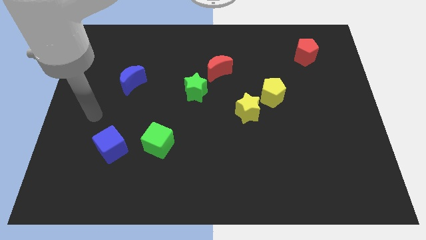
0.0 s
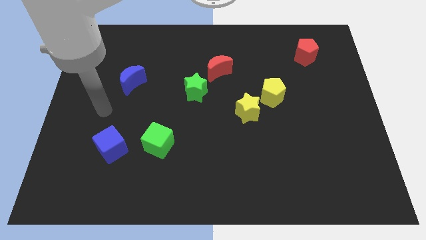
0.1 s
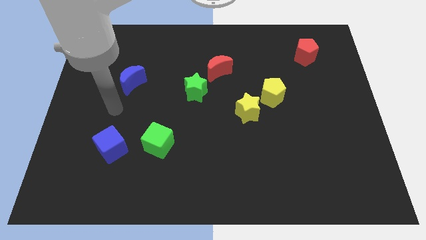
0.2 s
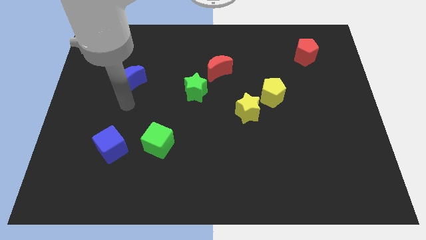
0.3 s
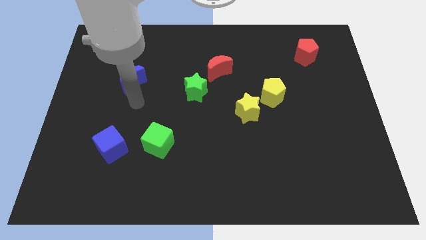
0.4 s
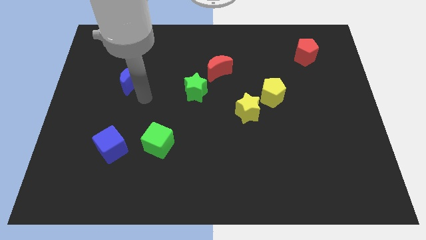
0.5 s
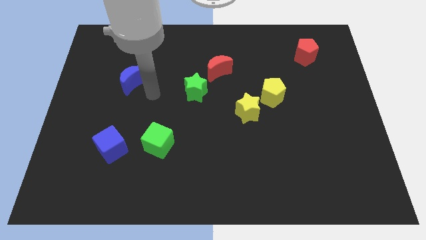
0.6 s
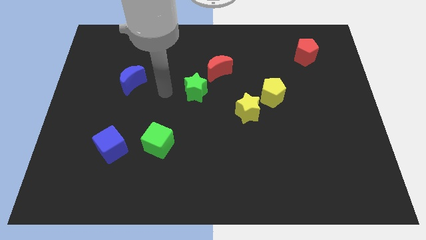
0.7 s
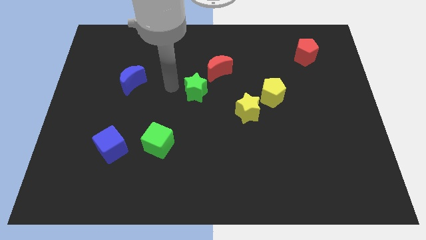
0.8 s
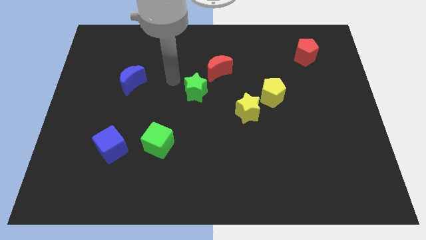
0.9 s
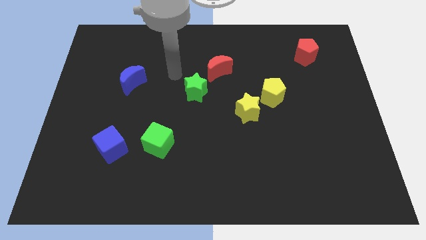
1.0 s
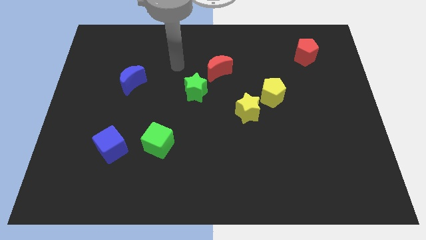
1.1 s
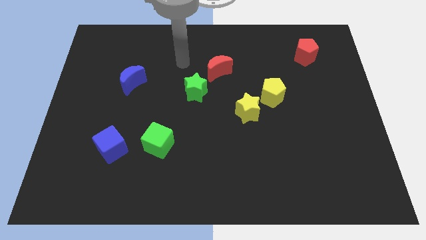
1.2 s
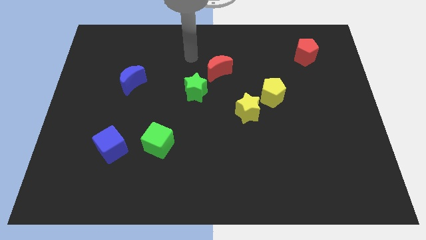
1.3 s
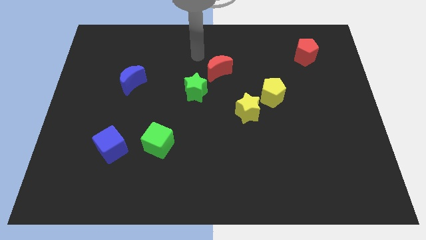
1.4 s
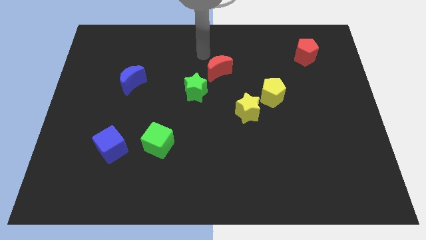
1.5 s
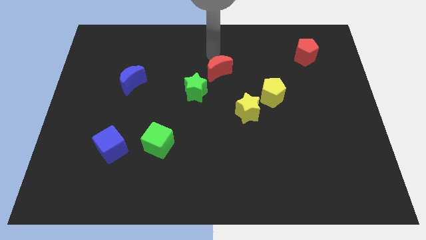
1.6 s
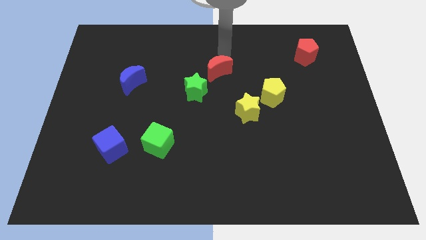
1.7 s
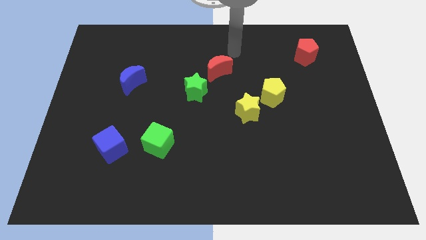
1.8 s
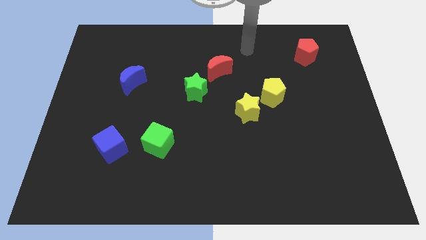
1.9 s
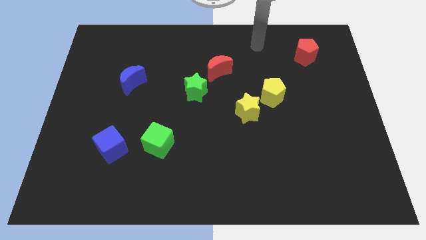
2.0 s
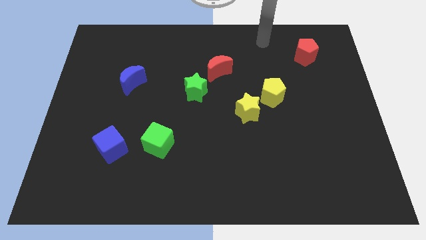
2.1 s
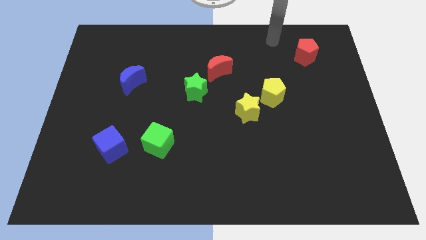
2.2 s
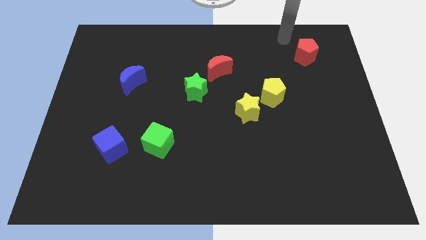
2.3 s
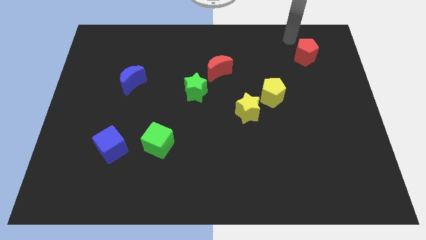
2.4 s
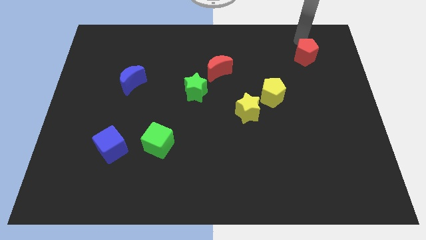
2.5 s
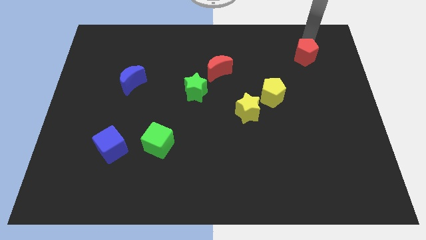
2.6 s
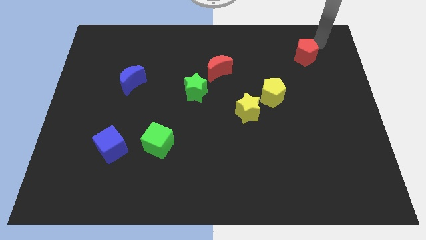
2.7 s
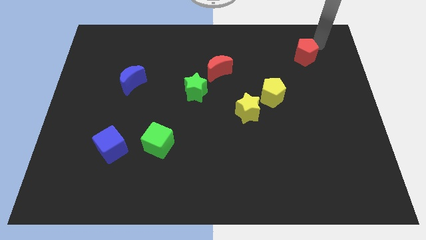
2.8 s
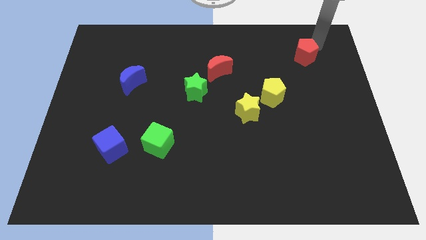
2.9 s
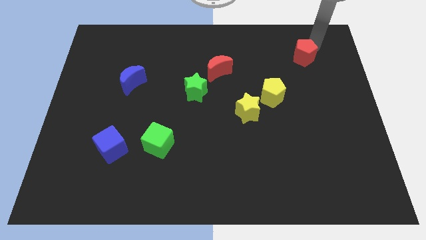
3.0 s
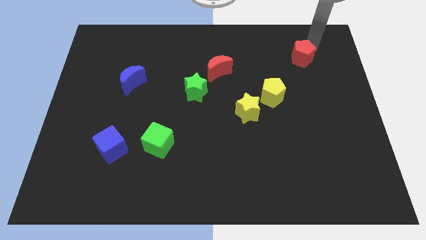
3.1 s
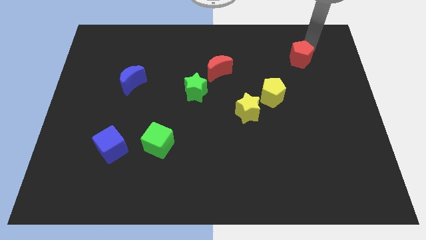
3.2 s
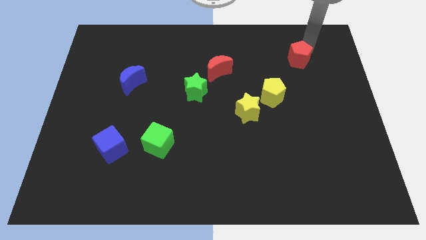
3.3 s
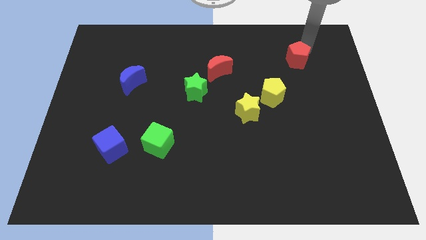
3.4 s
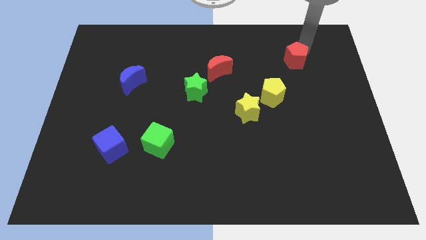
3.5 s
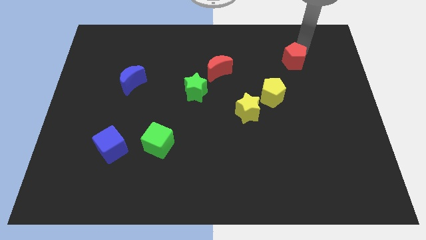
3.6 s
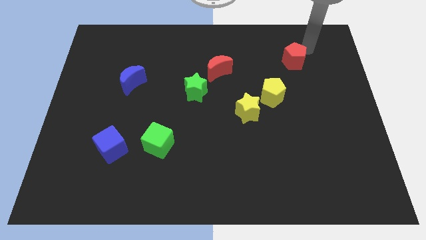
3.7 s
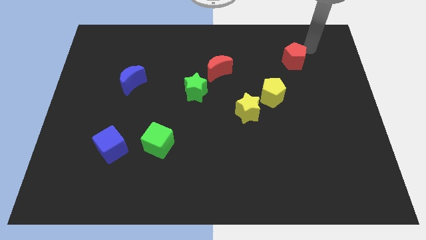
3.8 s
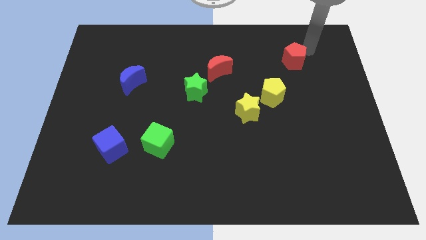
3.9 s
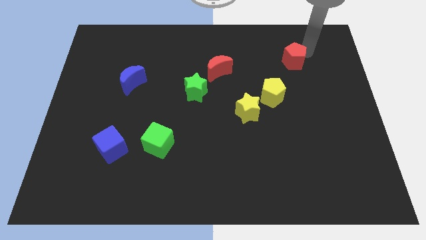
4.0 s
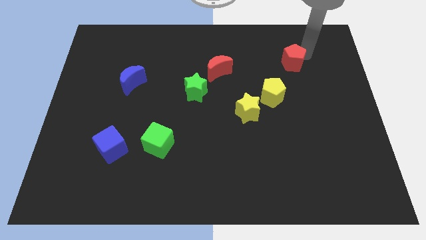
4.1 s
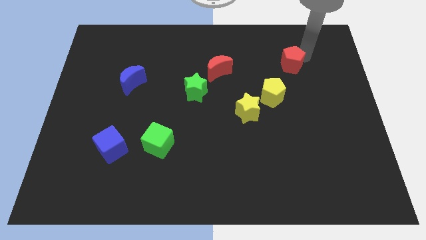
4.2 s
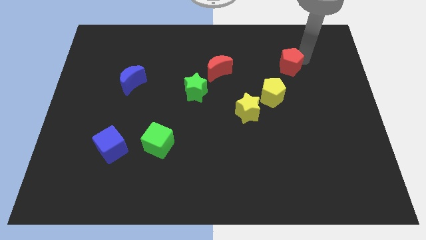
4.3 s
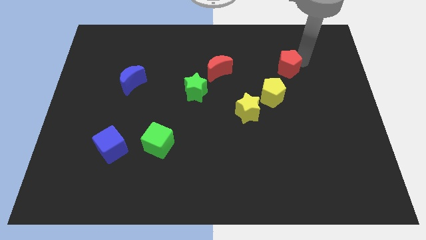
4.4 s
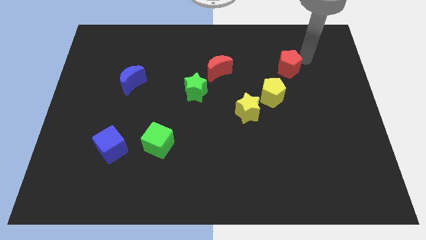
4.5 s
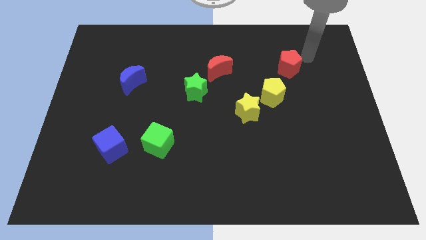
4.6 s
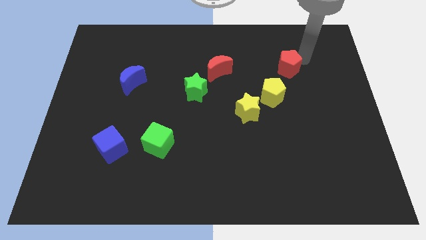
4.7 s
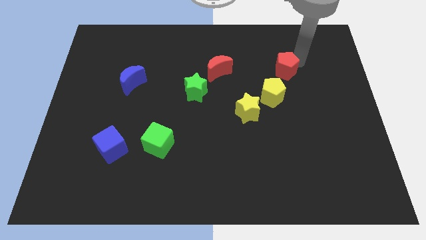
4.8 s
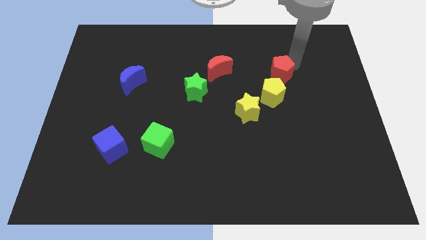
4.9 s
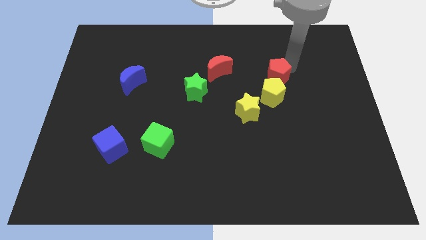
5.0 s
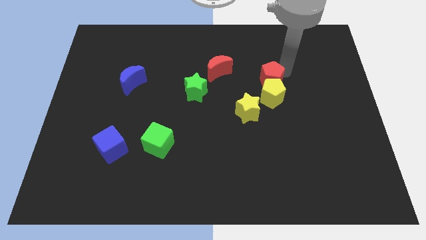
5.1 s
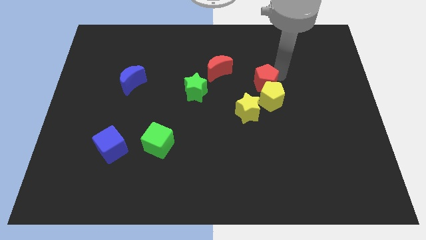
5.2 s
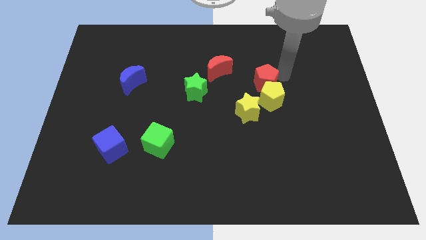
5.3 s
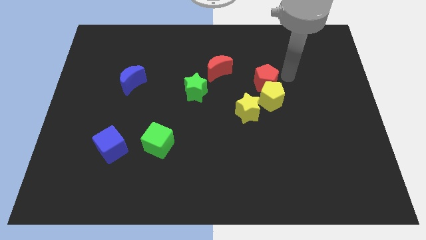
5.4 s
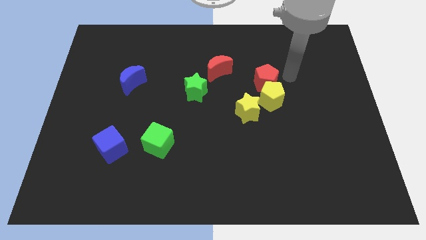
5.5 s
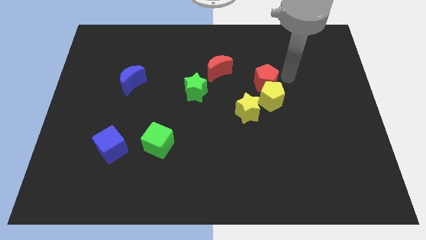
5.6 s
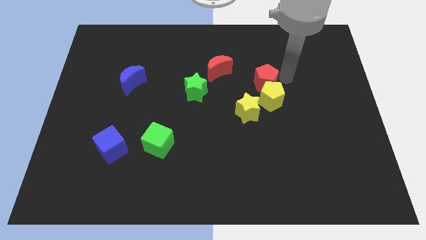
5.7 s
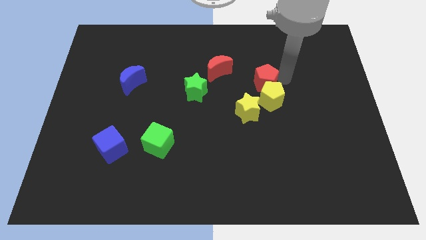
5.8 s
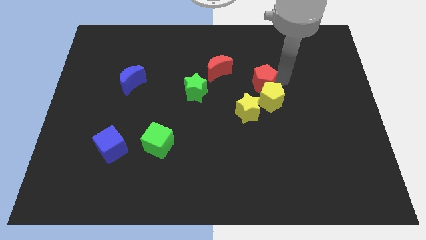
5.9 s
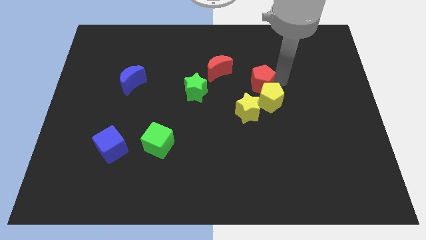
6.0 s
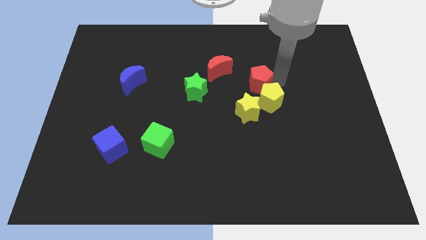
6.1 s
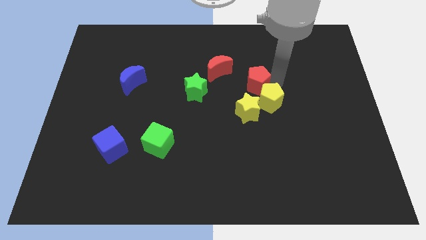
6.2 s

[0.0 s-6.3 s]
slide the red pentagon to the center

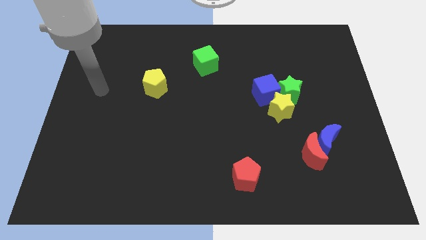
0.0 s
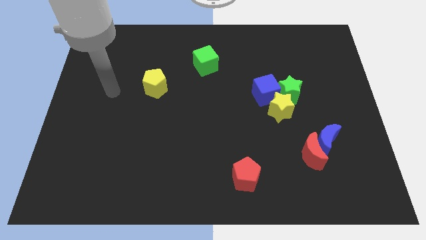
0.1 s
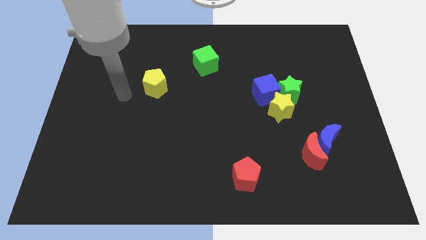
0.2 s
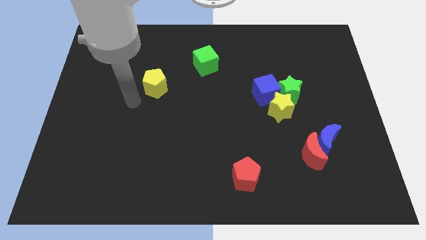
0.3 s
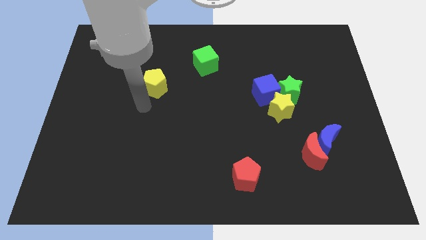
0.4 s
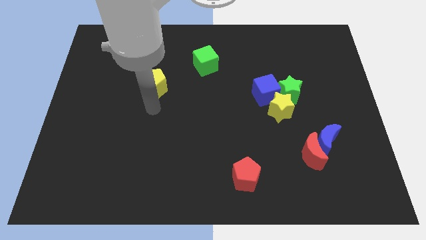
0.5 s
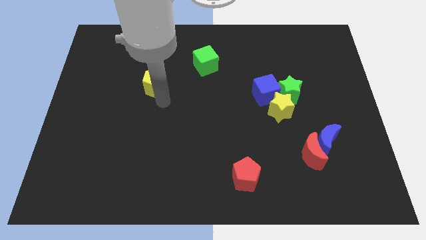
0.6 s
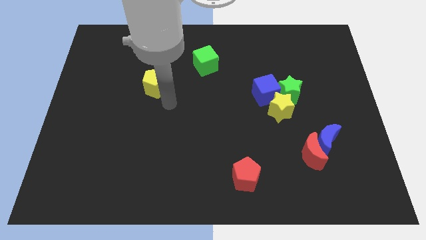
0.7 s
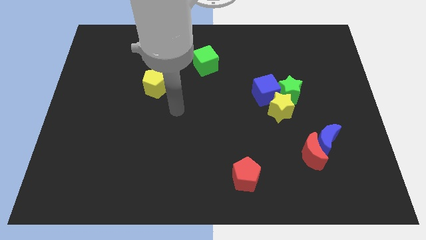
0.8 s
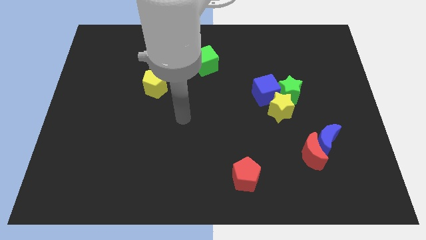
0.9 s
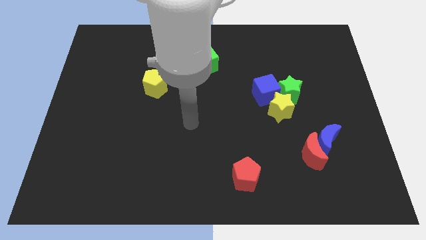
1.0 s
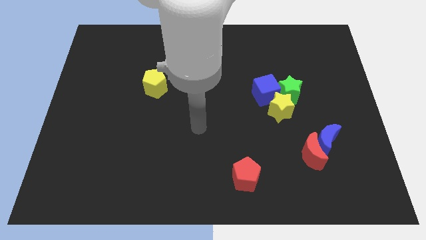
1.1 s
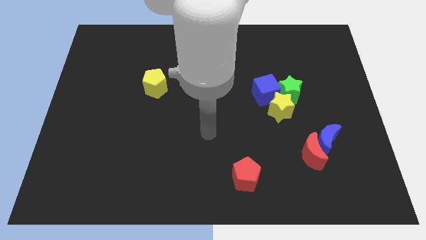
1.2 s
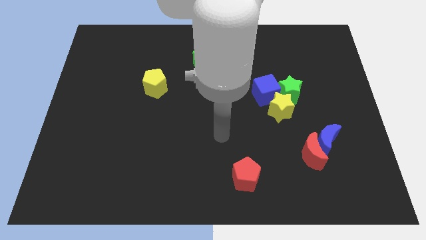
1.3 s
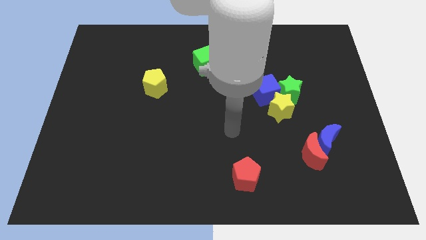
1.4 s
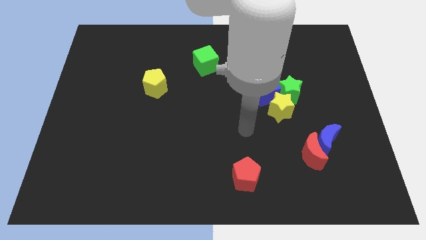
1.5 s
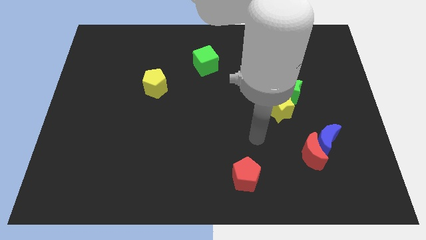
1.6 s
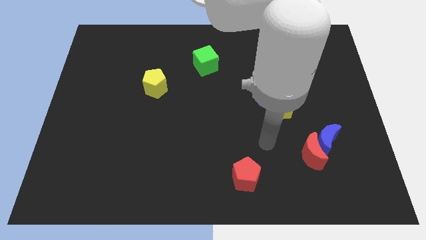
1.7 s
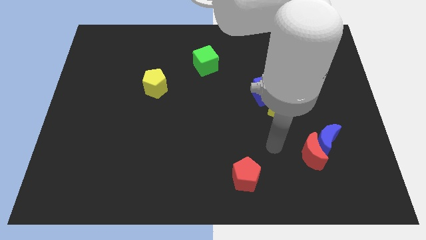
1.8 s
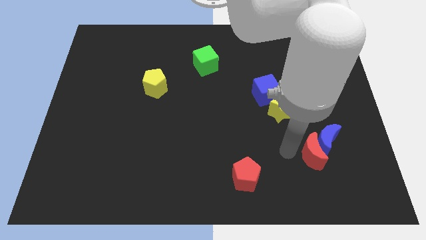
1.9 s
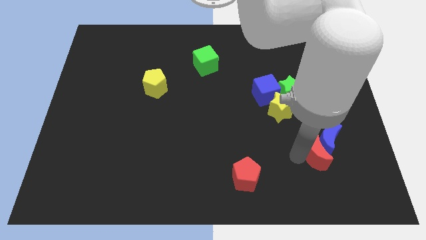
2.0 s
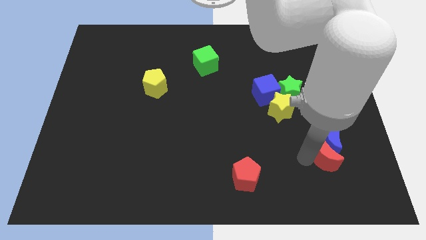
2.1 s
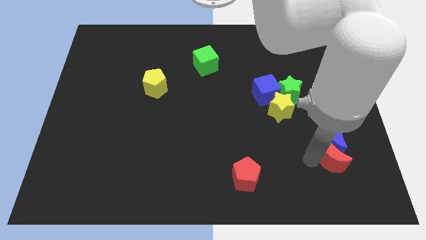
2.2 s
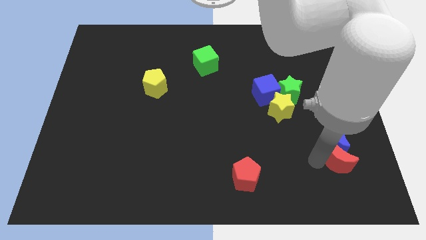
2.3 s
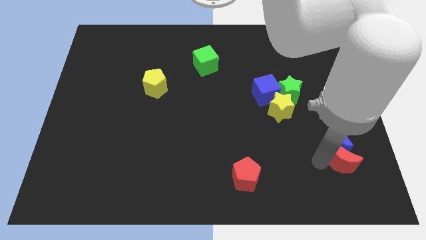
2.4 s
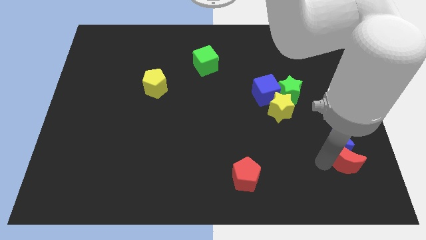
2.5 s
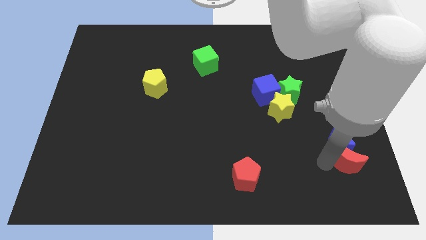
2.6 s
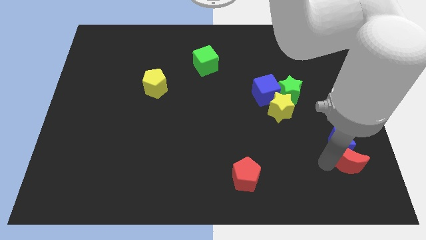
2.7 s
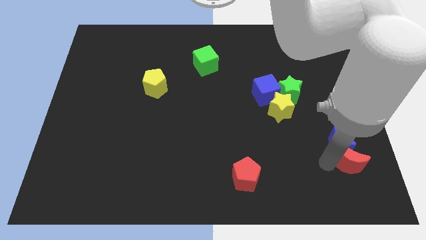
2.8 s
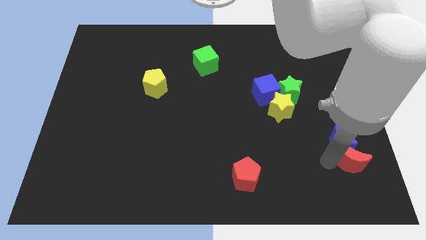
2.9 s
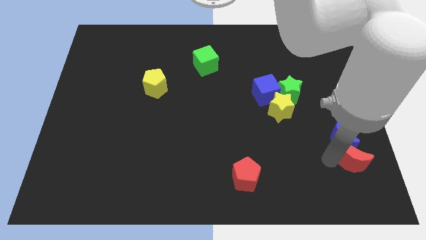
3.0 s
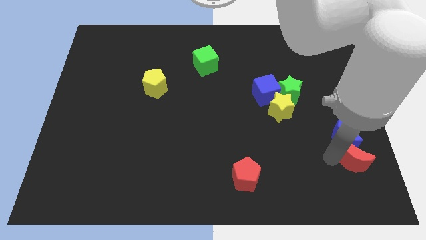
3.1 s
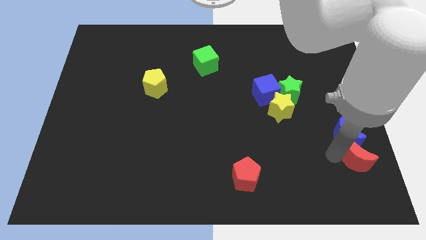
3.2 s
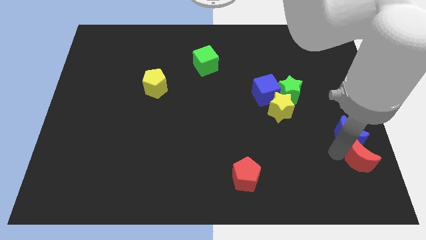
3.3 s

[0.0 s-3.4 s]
slide the blue moon to the right side
